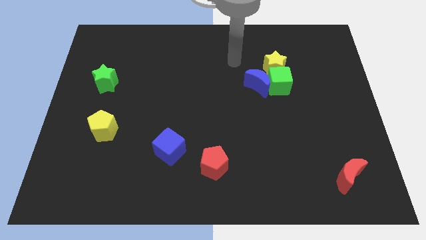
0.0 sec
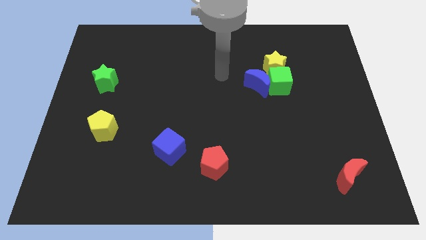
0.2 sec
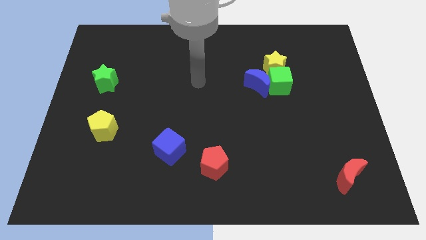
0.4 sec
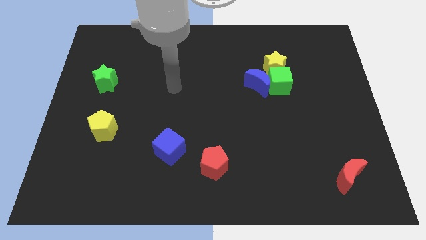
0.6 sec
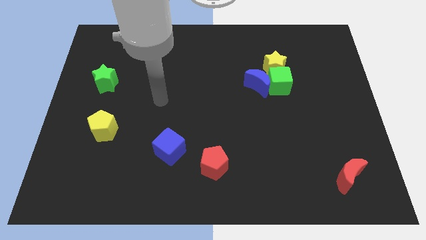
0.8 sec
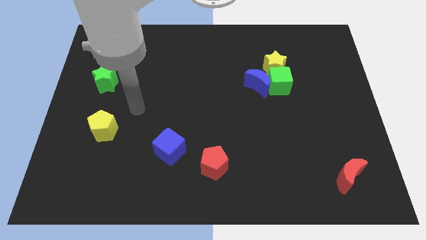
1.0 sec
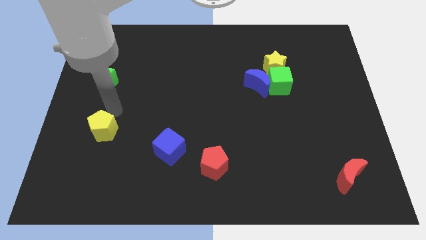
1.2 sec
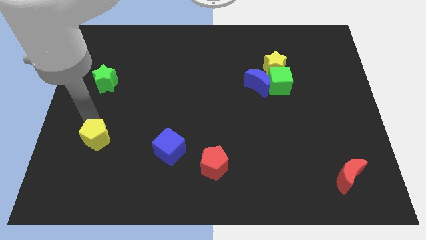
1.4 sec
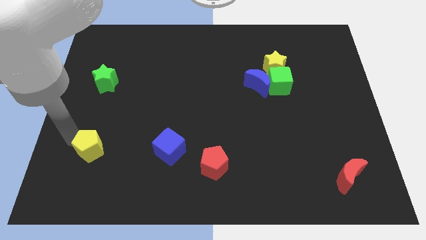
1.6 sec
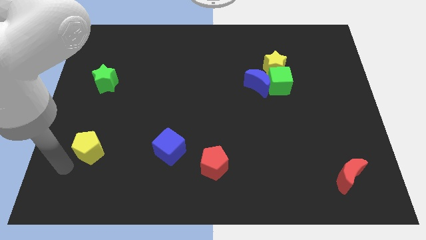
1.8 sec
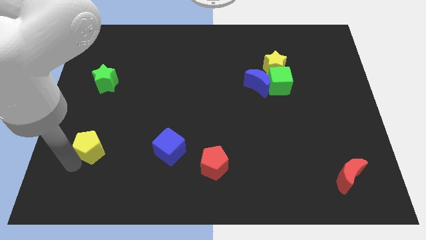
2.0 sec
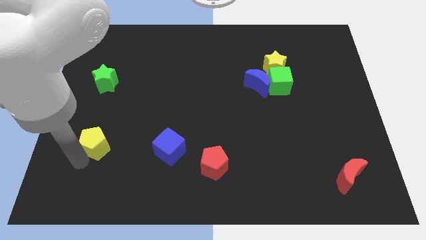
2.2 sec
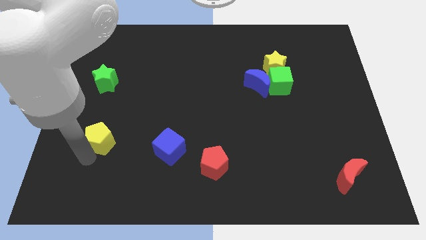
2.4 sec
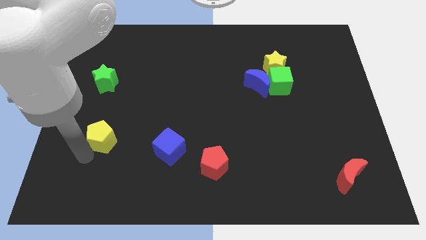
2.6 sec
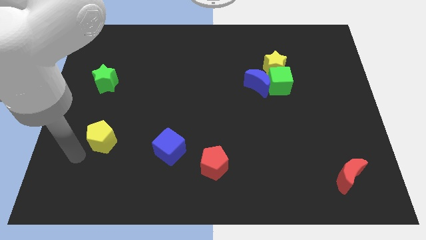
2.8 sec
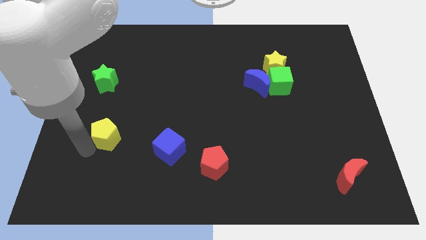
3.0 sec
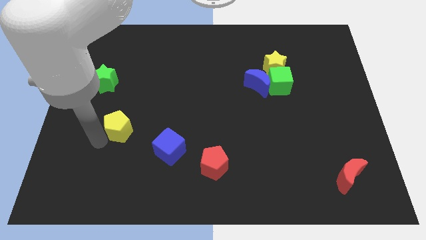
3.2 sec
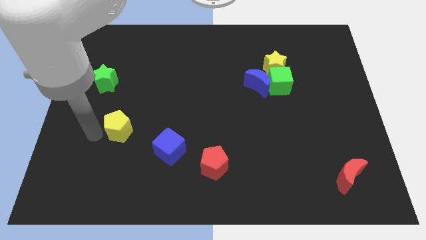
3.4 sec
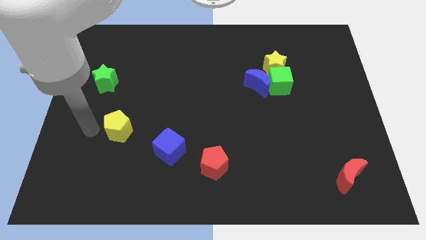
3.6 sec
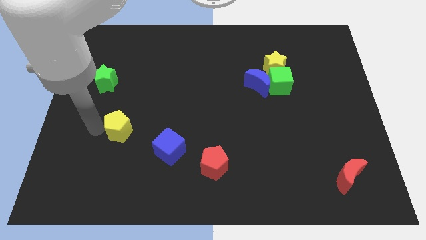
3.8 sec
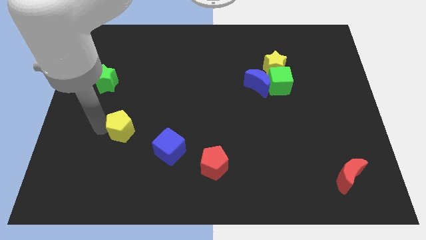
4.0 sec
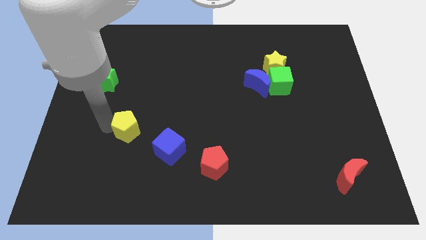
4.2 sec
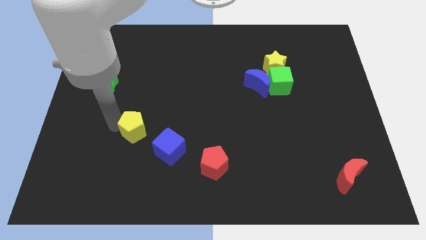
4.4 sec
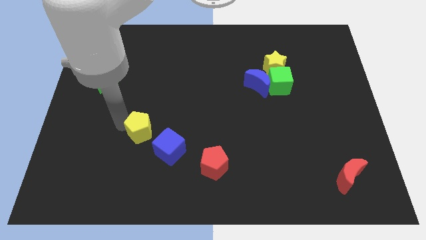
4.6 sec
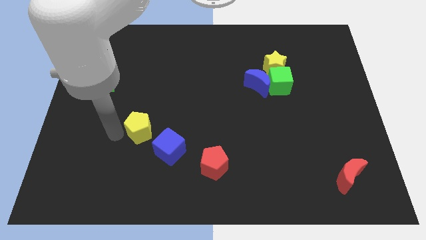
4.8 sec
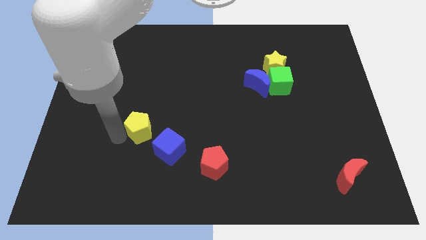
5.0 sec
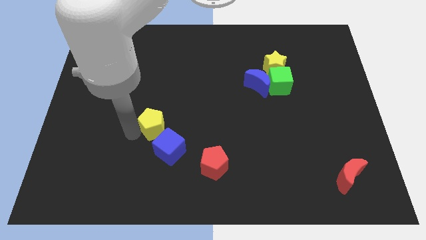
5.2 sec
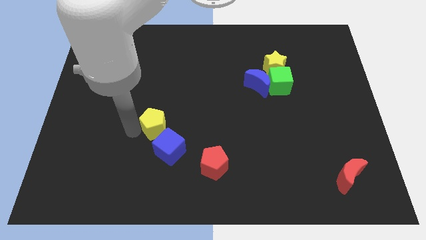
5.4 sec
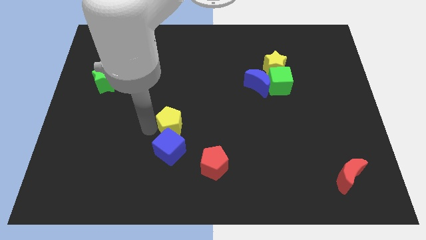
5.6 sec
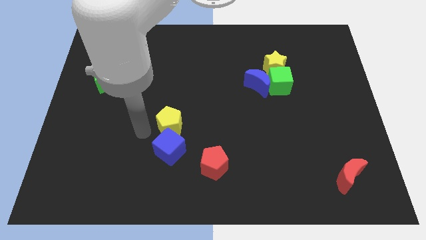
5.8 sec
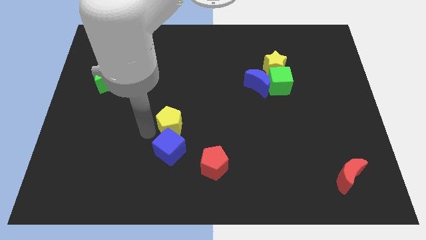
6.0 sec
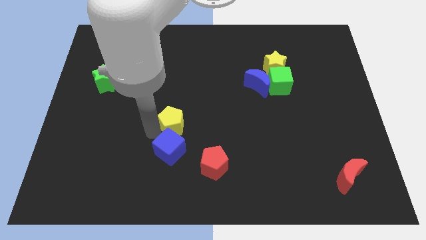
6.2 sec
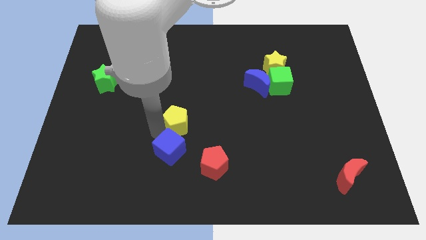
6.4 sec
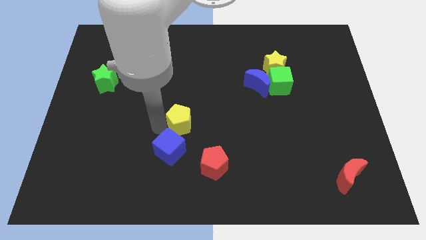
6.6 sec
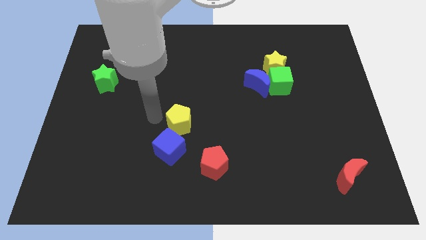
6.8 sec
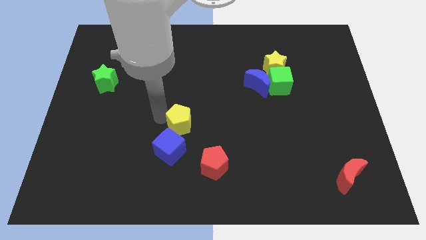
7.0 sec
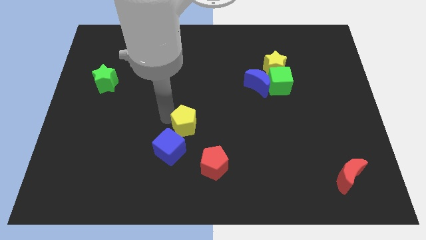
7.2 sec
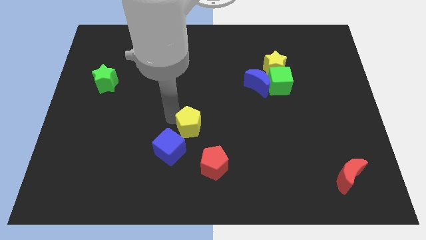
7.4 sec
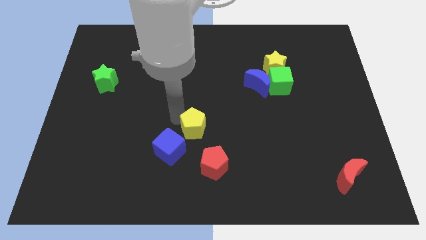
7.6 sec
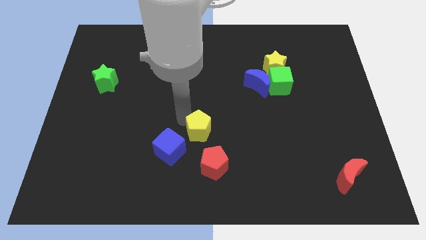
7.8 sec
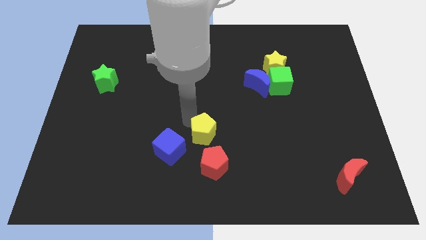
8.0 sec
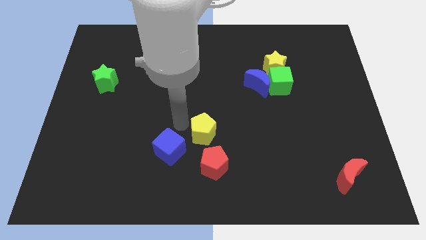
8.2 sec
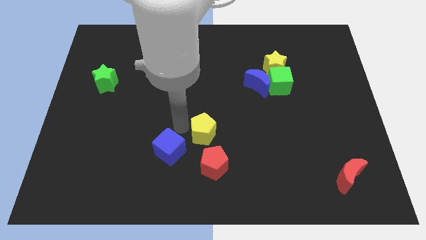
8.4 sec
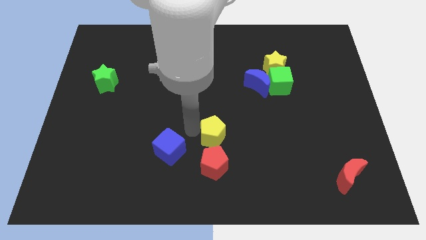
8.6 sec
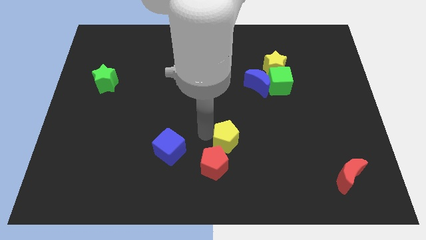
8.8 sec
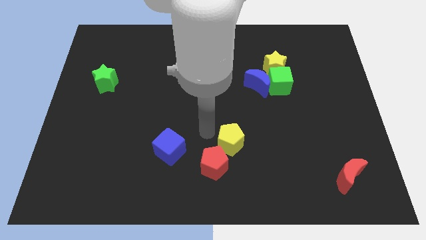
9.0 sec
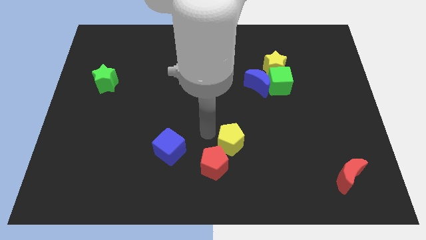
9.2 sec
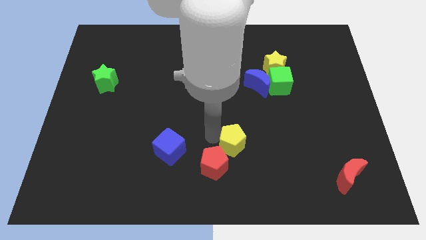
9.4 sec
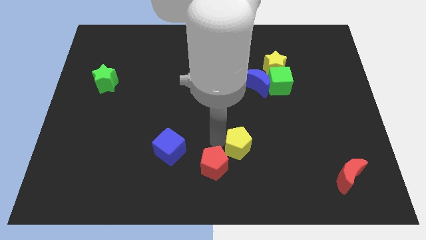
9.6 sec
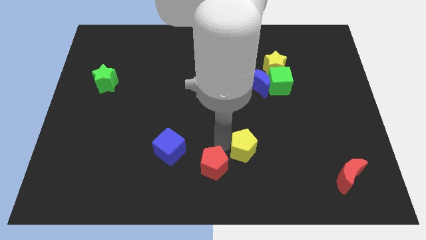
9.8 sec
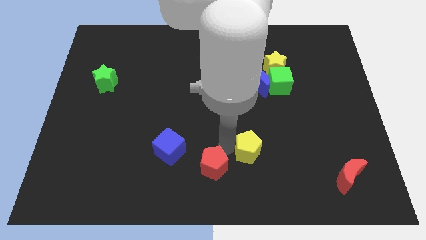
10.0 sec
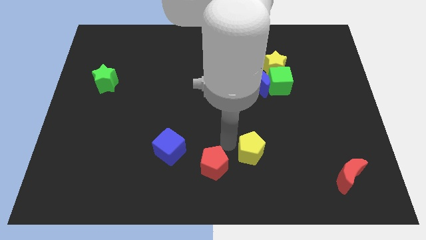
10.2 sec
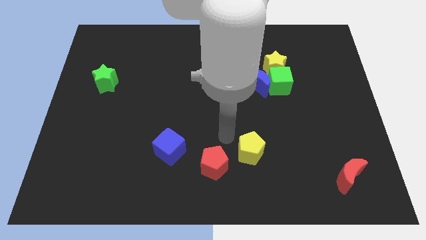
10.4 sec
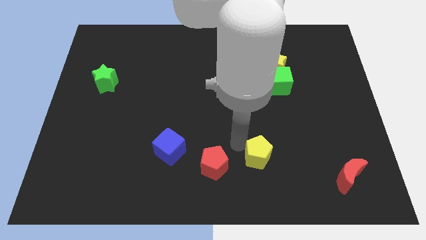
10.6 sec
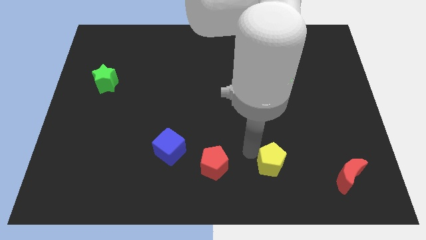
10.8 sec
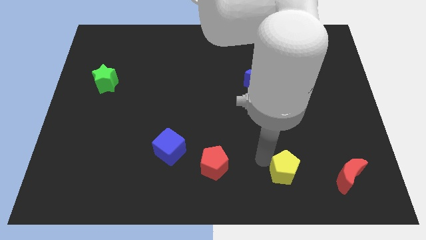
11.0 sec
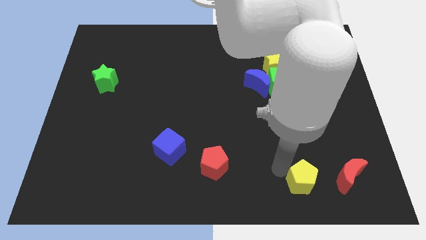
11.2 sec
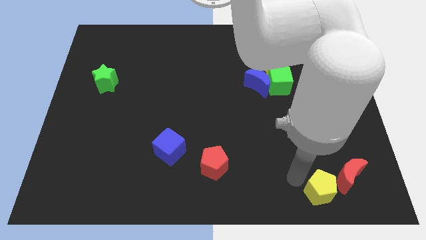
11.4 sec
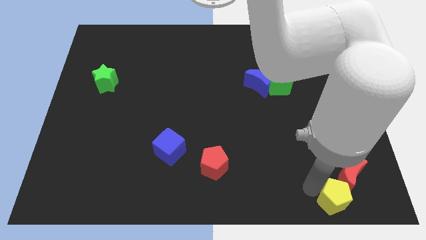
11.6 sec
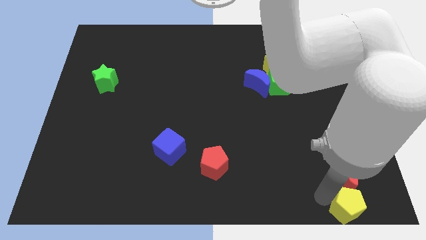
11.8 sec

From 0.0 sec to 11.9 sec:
push the yellow pentagon to the bottom right

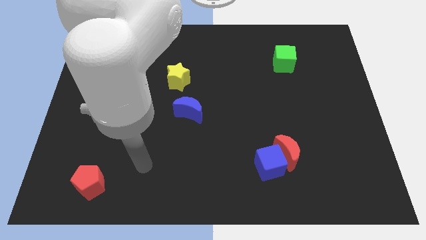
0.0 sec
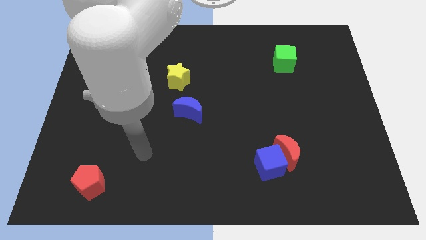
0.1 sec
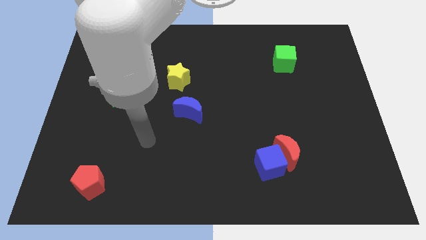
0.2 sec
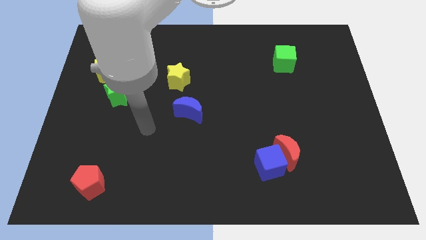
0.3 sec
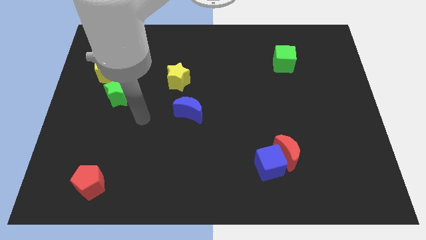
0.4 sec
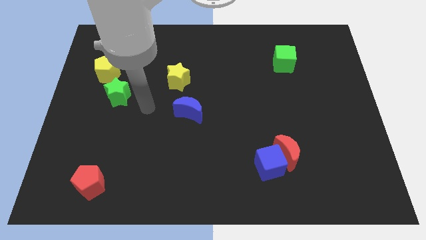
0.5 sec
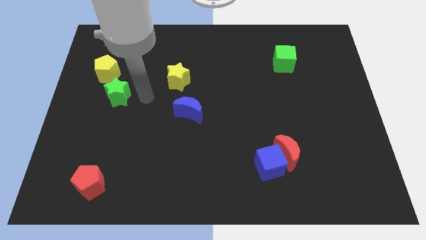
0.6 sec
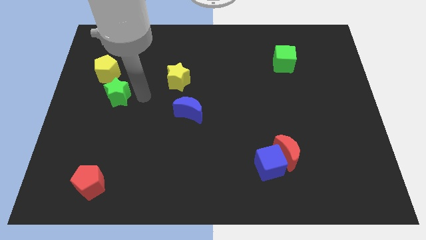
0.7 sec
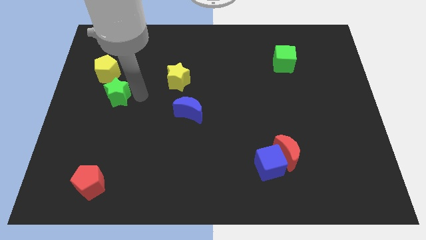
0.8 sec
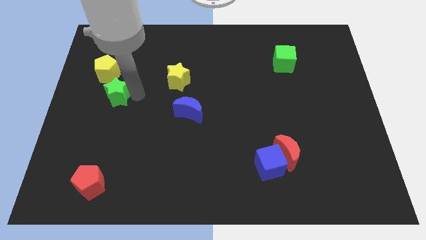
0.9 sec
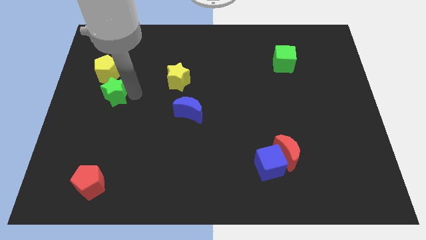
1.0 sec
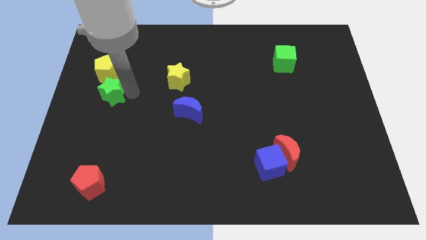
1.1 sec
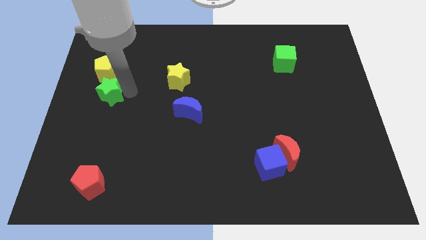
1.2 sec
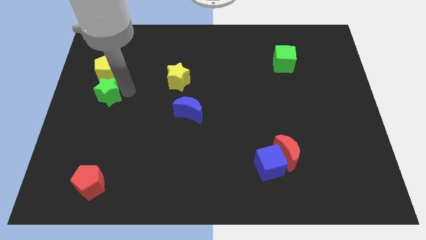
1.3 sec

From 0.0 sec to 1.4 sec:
put the green star to the left side
